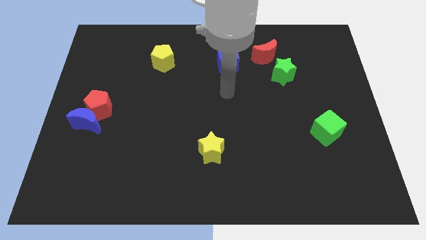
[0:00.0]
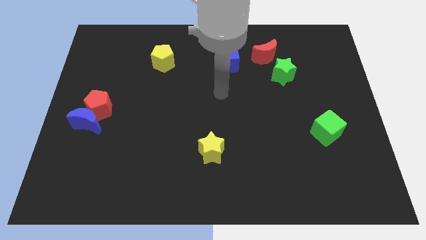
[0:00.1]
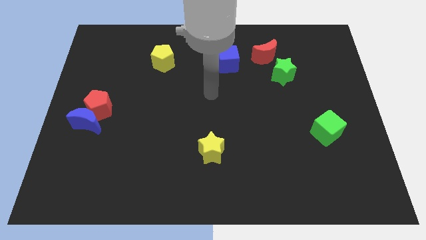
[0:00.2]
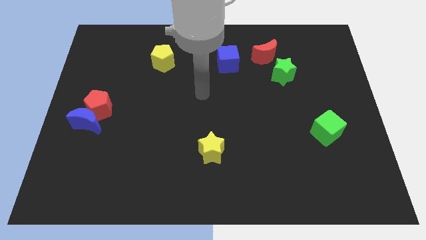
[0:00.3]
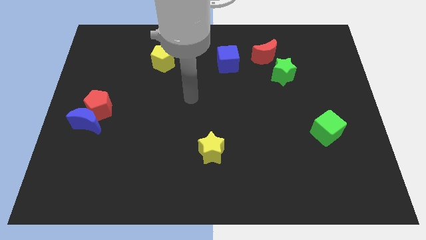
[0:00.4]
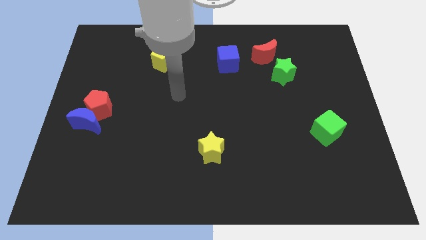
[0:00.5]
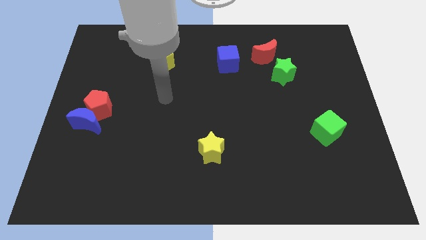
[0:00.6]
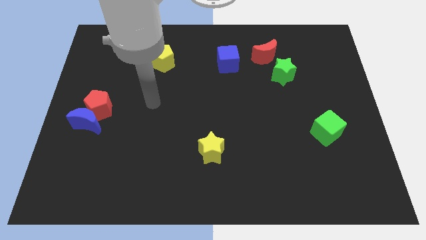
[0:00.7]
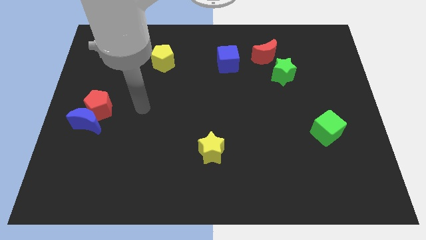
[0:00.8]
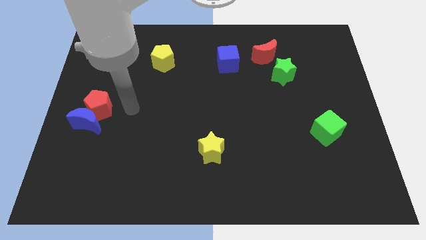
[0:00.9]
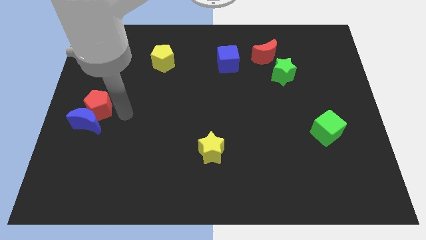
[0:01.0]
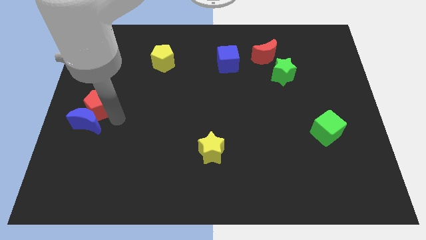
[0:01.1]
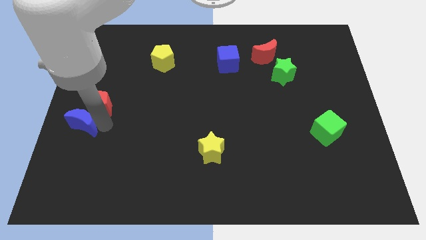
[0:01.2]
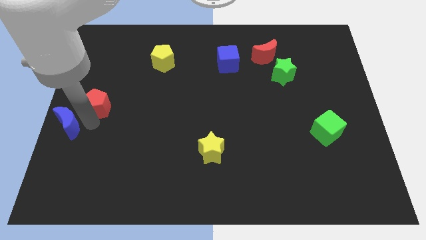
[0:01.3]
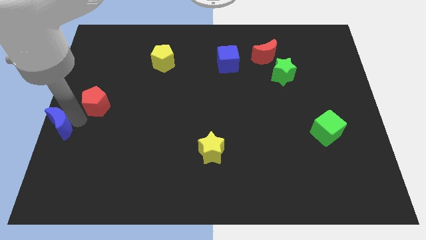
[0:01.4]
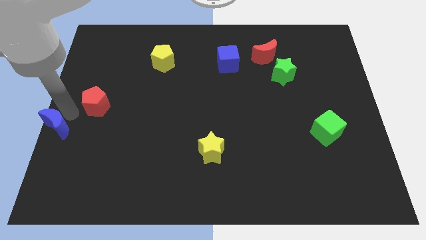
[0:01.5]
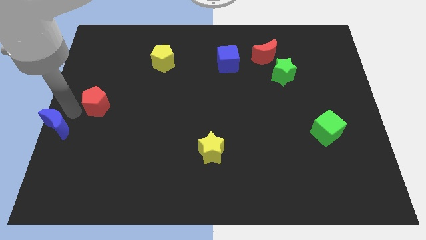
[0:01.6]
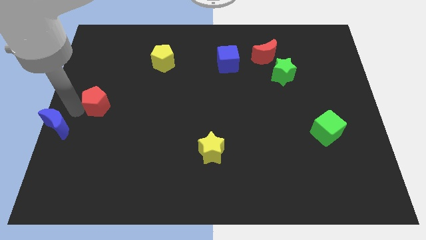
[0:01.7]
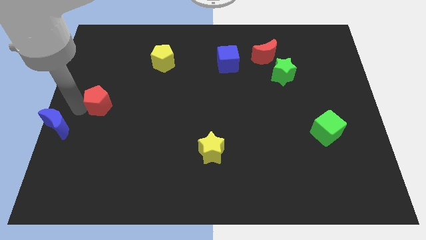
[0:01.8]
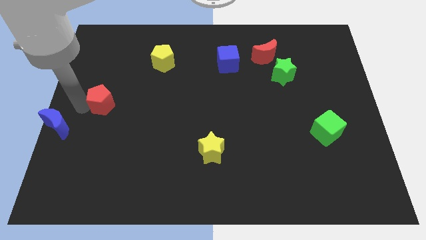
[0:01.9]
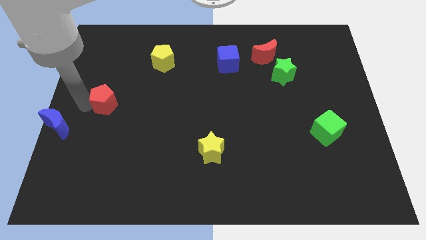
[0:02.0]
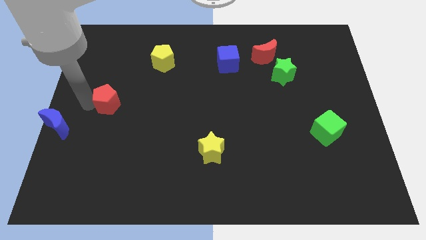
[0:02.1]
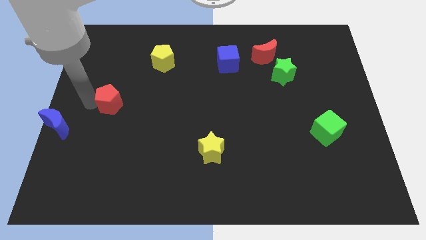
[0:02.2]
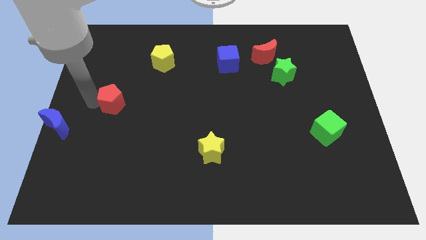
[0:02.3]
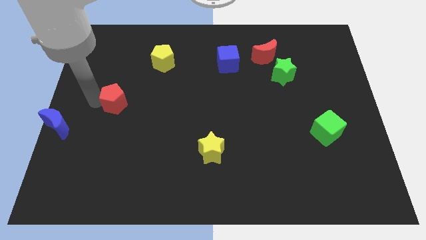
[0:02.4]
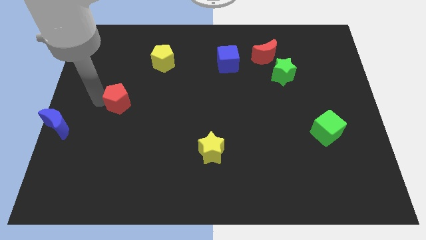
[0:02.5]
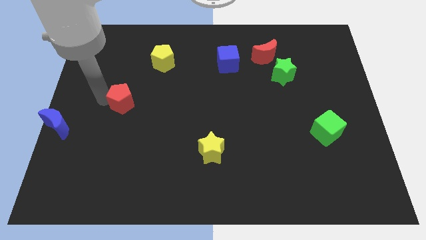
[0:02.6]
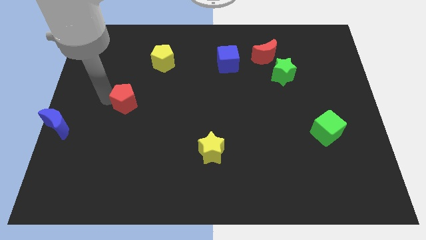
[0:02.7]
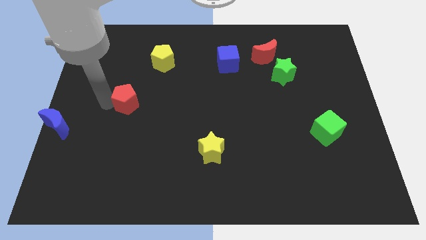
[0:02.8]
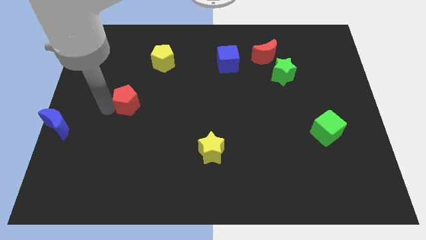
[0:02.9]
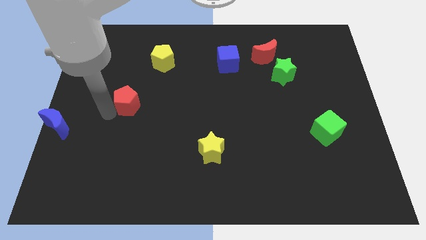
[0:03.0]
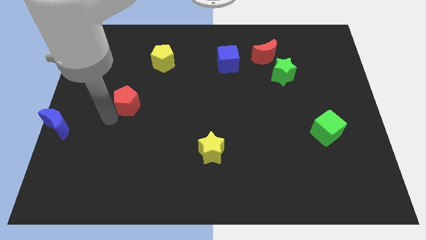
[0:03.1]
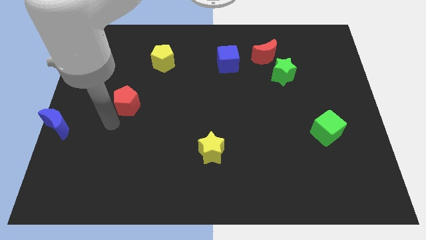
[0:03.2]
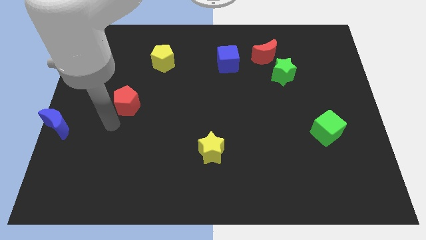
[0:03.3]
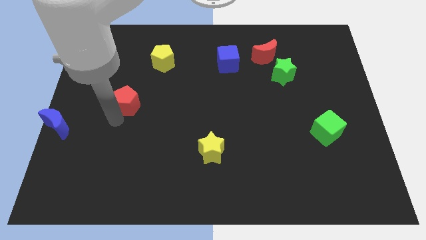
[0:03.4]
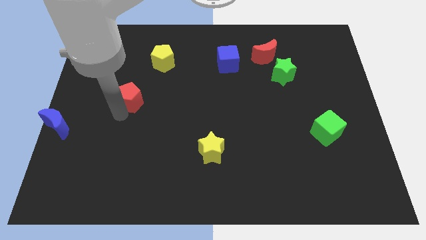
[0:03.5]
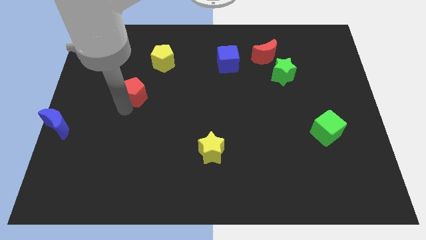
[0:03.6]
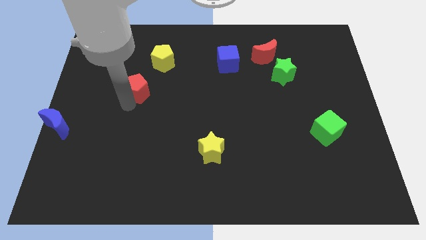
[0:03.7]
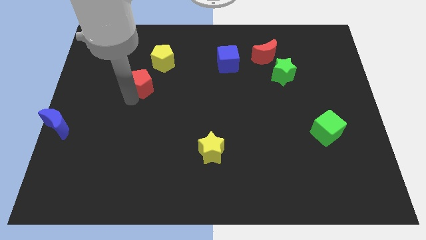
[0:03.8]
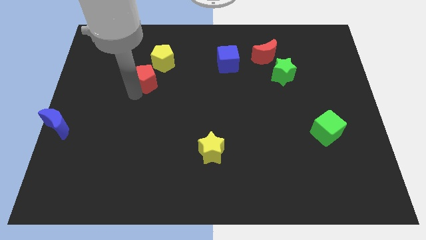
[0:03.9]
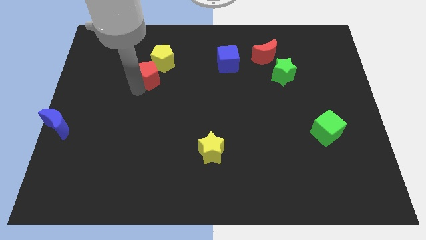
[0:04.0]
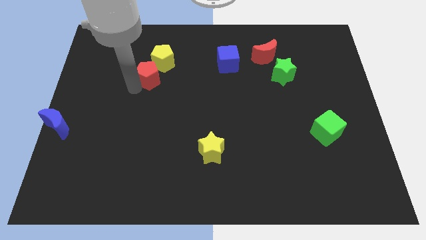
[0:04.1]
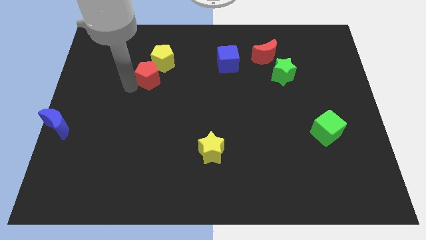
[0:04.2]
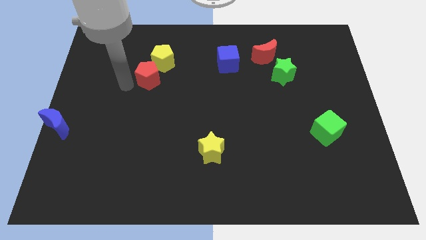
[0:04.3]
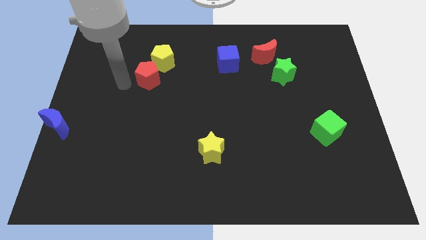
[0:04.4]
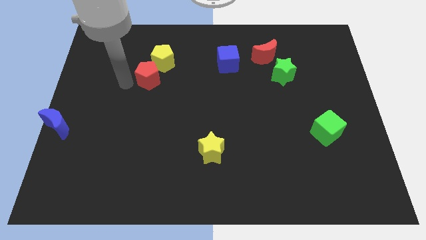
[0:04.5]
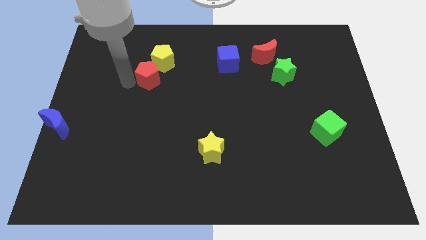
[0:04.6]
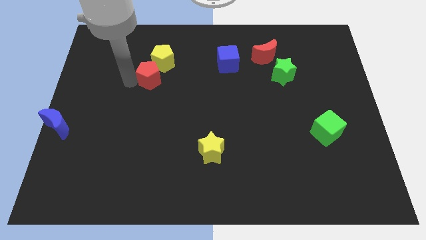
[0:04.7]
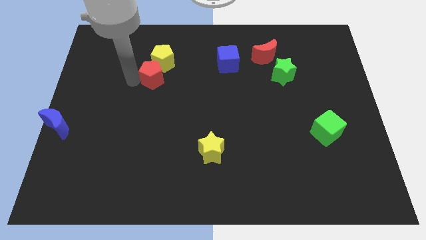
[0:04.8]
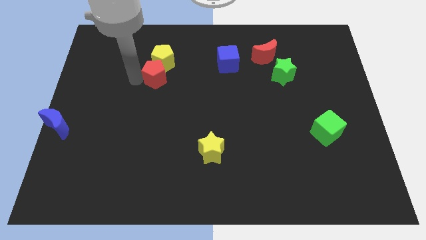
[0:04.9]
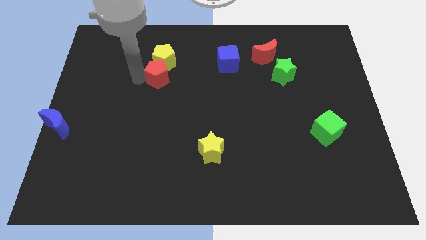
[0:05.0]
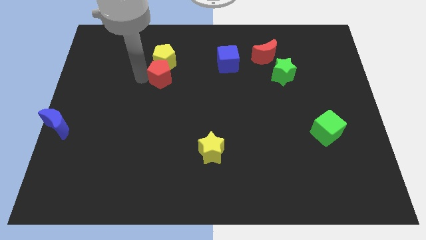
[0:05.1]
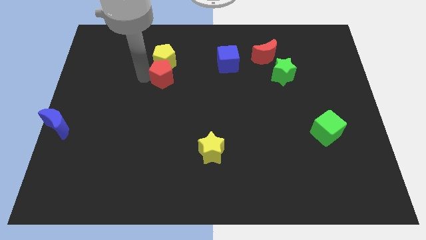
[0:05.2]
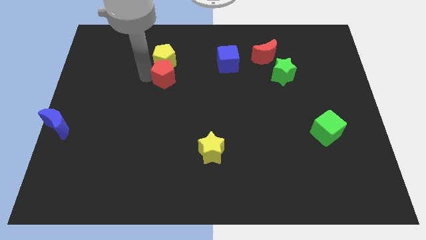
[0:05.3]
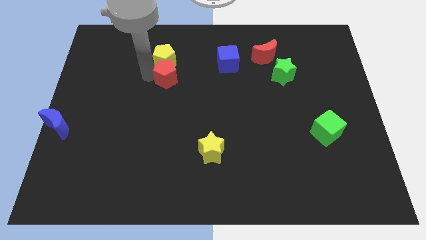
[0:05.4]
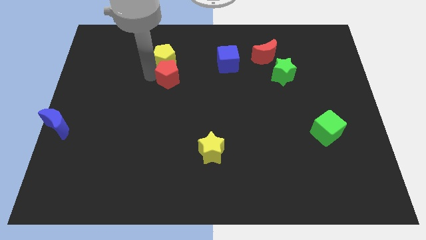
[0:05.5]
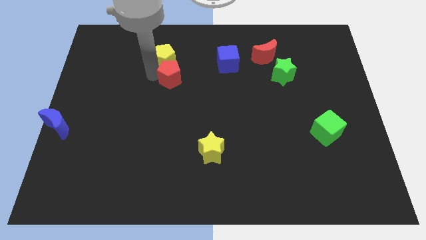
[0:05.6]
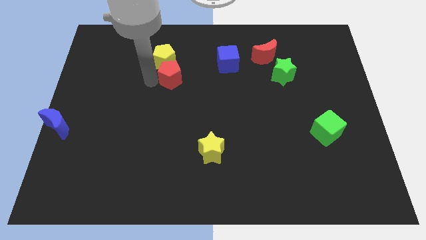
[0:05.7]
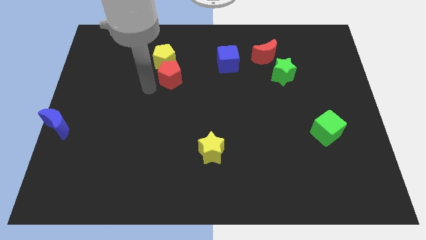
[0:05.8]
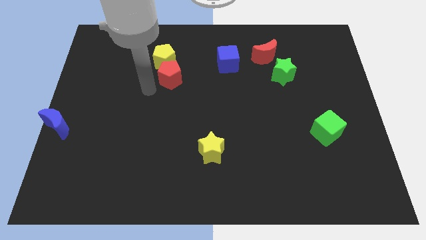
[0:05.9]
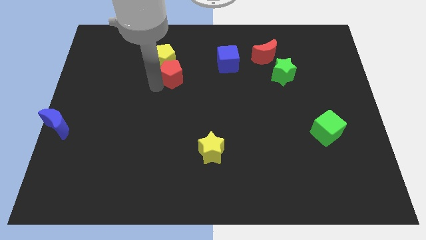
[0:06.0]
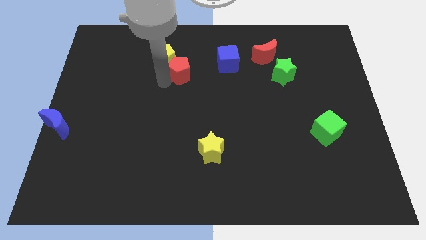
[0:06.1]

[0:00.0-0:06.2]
put the red pentagon just right of the yellow pentagon

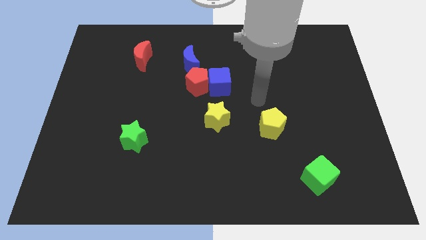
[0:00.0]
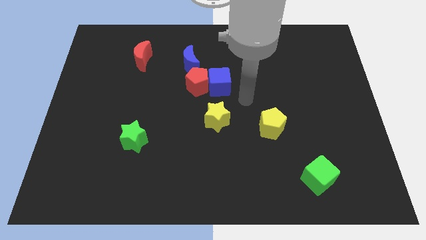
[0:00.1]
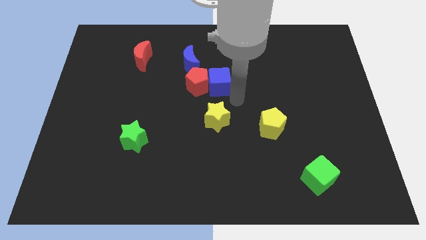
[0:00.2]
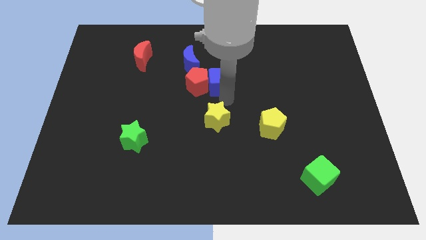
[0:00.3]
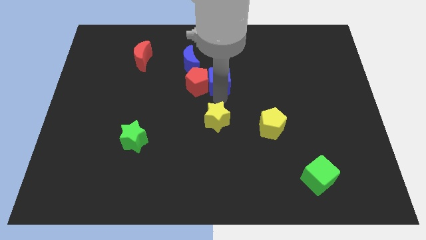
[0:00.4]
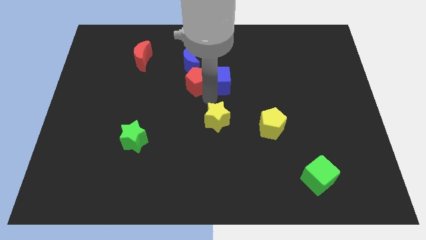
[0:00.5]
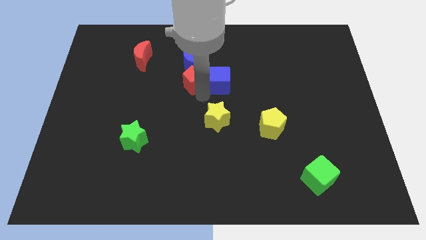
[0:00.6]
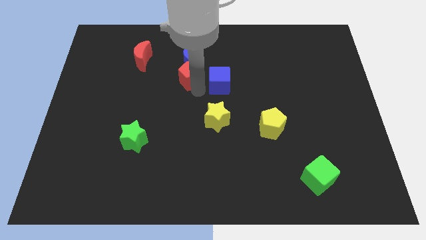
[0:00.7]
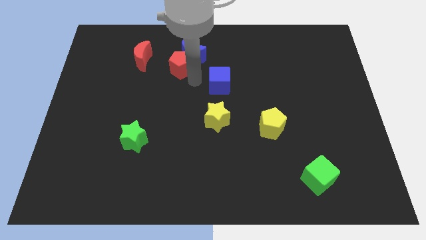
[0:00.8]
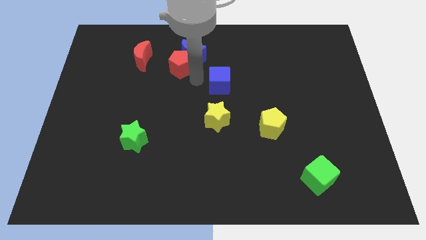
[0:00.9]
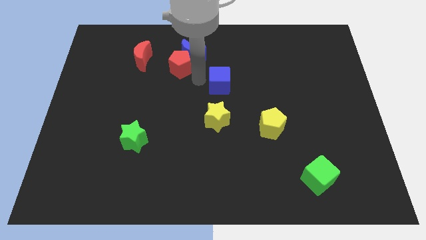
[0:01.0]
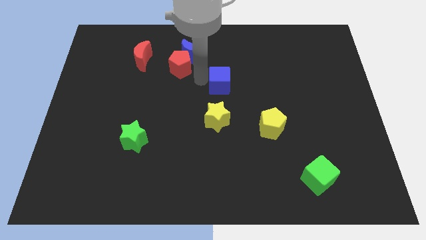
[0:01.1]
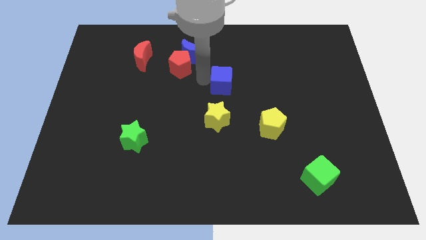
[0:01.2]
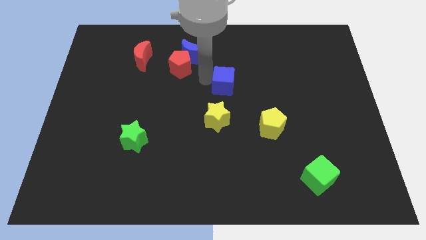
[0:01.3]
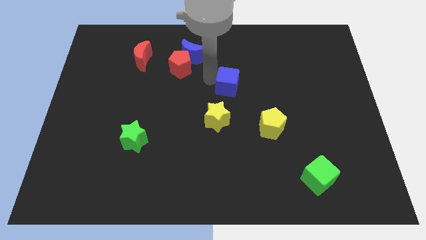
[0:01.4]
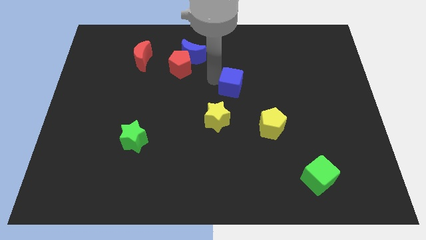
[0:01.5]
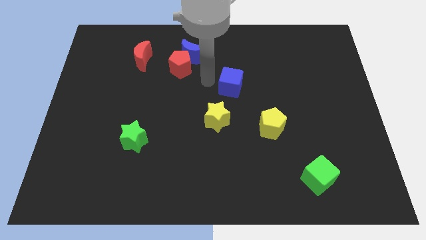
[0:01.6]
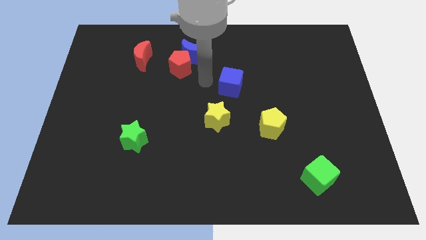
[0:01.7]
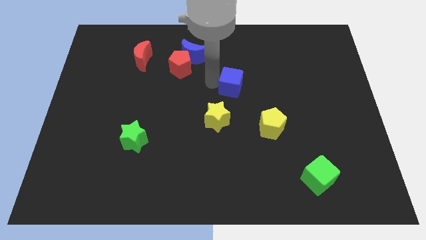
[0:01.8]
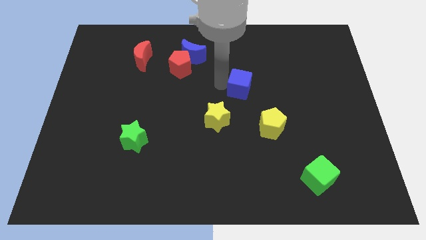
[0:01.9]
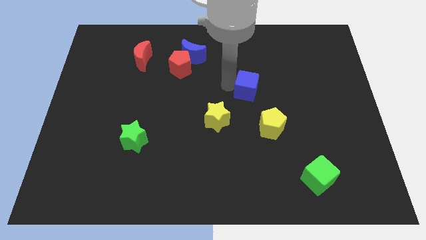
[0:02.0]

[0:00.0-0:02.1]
put the blue cube above the yellow pentagon
